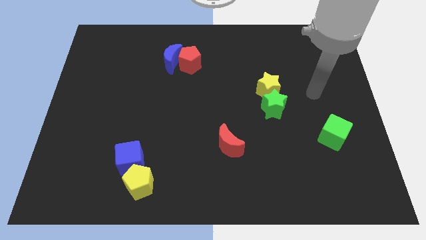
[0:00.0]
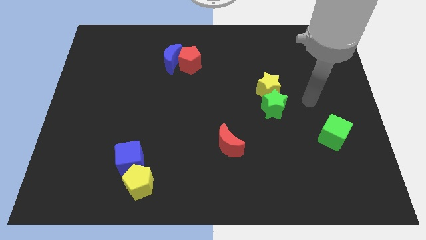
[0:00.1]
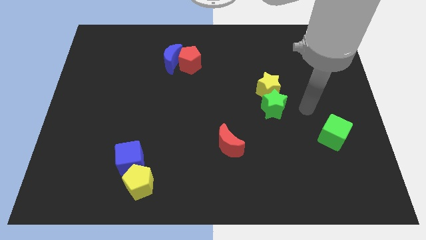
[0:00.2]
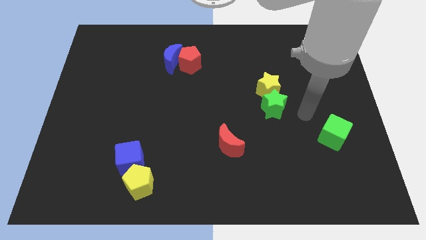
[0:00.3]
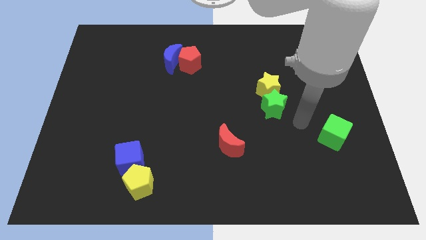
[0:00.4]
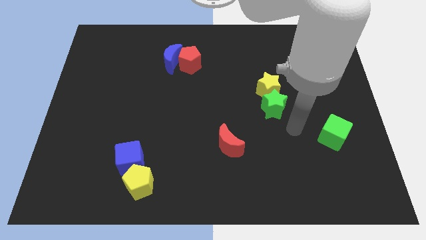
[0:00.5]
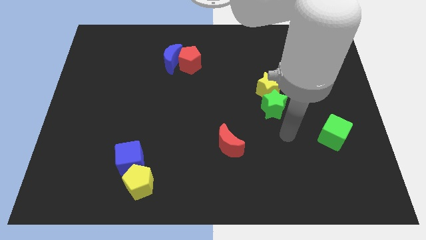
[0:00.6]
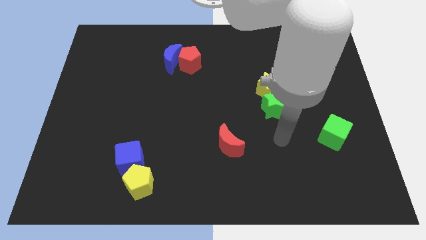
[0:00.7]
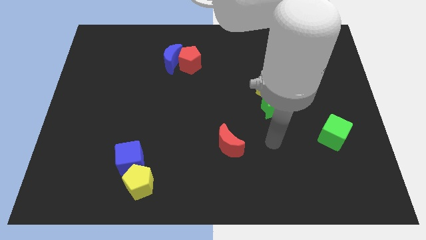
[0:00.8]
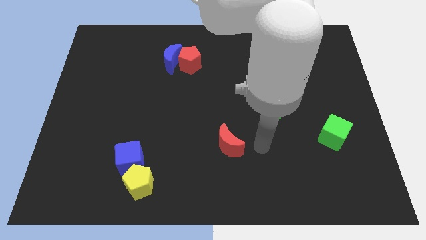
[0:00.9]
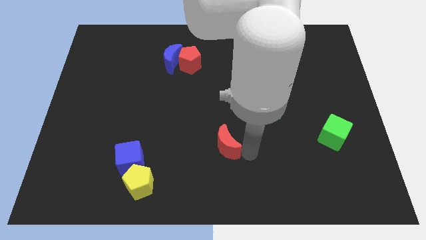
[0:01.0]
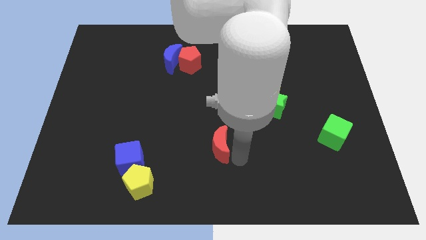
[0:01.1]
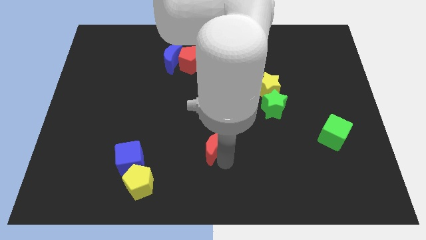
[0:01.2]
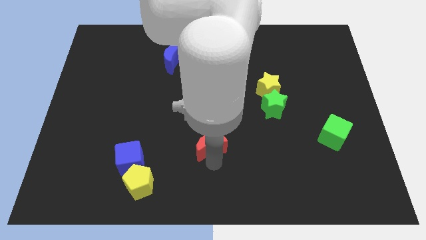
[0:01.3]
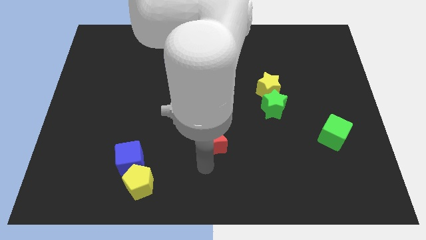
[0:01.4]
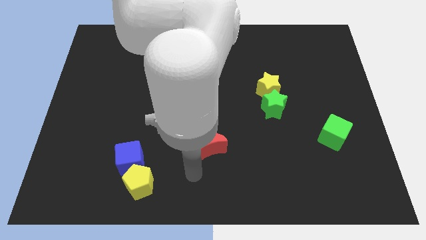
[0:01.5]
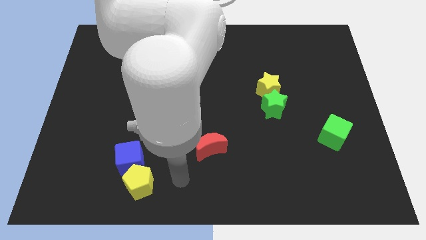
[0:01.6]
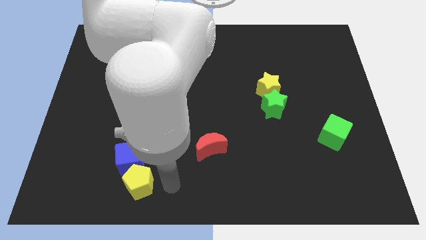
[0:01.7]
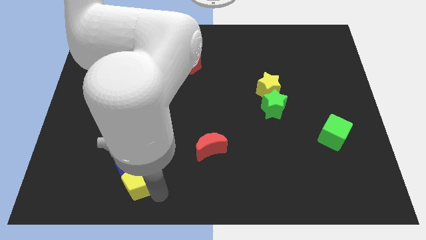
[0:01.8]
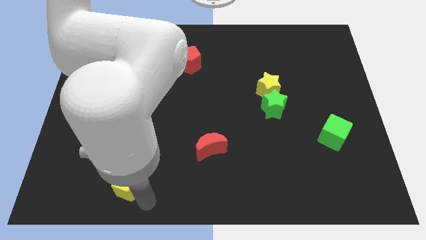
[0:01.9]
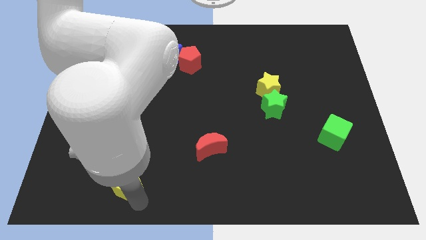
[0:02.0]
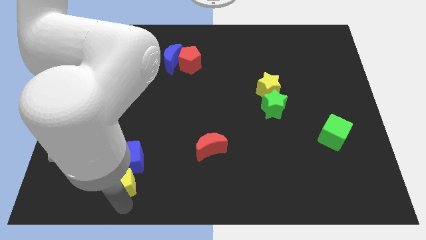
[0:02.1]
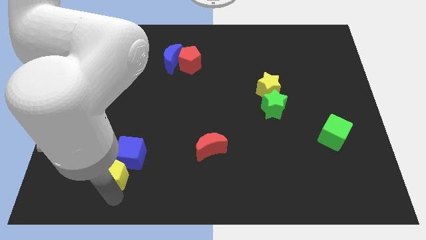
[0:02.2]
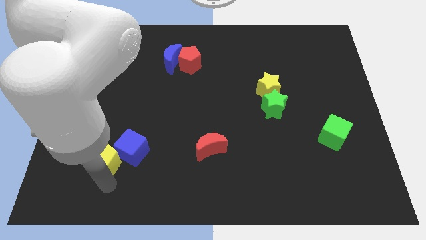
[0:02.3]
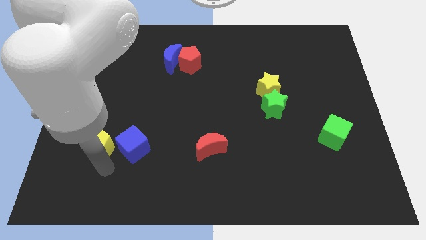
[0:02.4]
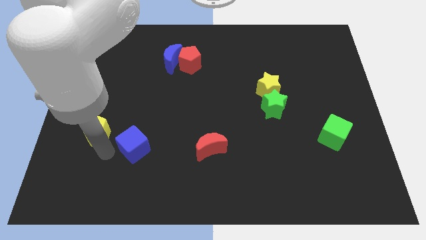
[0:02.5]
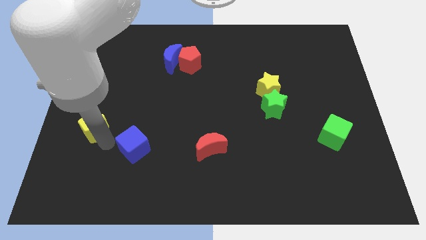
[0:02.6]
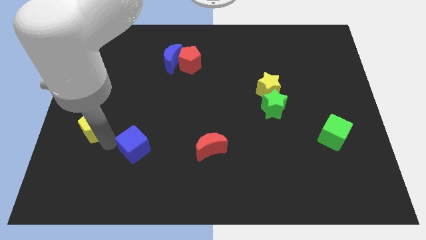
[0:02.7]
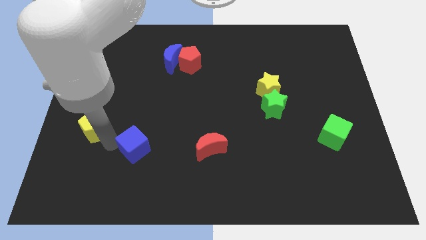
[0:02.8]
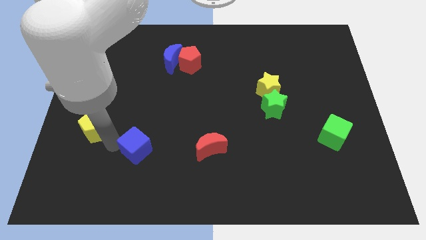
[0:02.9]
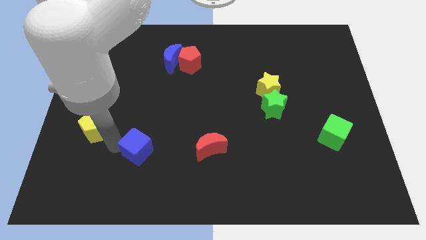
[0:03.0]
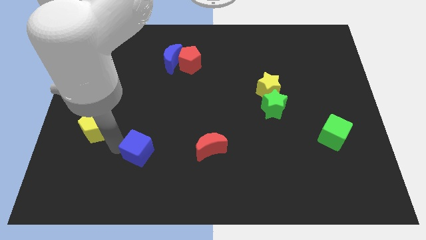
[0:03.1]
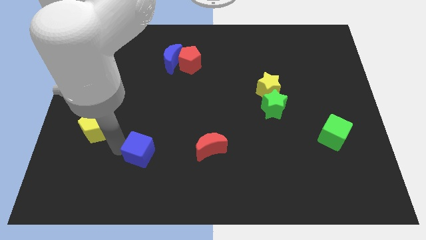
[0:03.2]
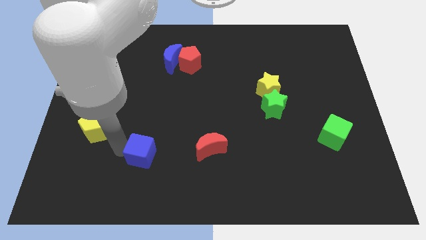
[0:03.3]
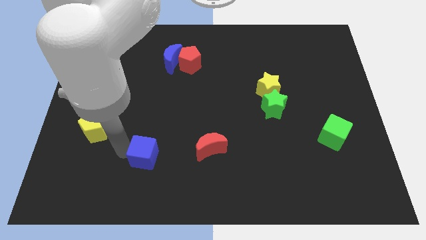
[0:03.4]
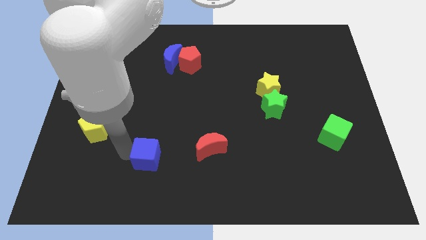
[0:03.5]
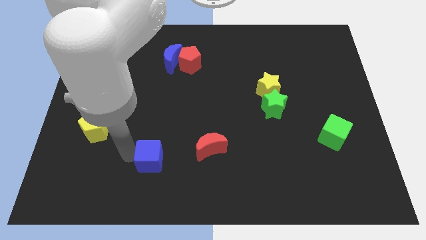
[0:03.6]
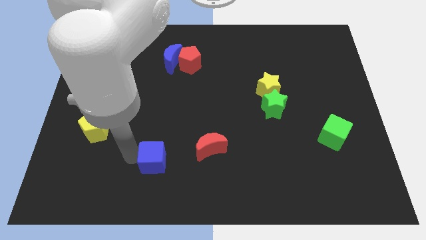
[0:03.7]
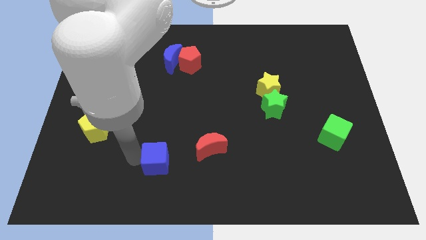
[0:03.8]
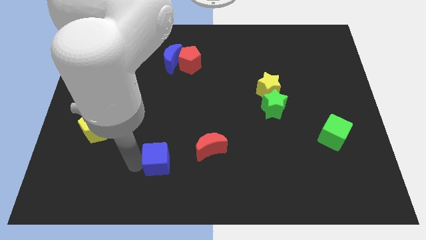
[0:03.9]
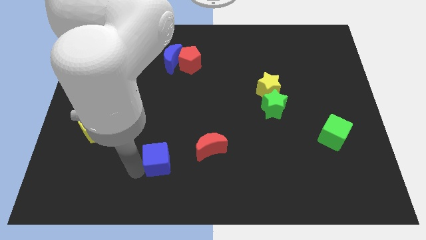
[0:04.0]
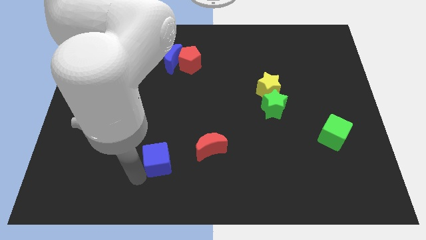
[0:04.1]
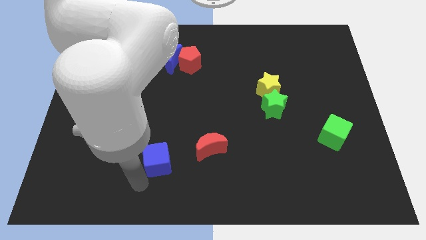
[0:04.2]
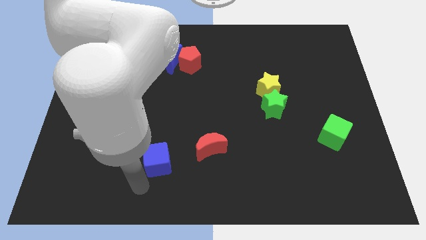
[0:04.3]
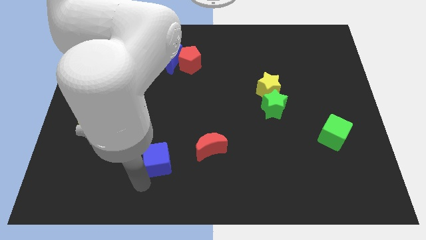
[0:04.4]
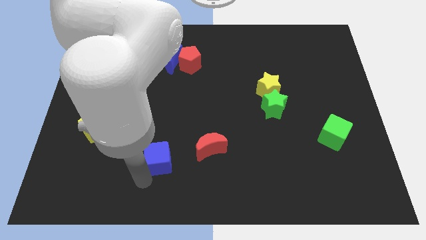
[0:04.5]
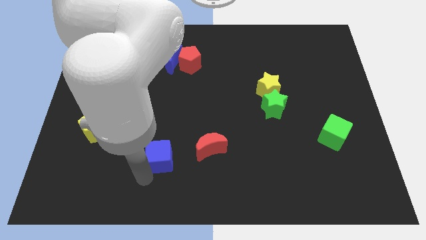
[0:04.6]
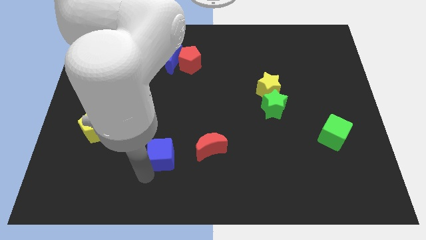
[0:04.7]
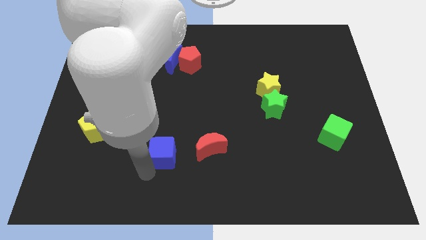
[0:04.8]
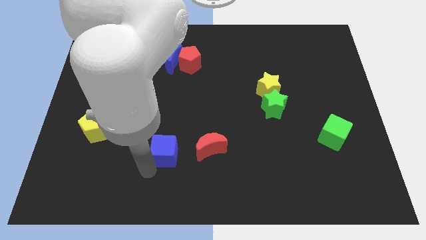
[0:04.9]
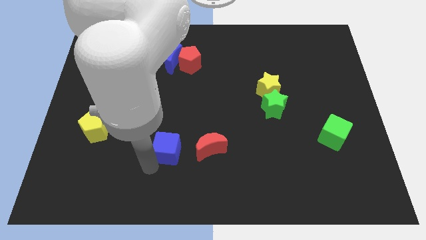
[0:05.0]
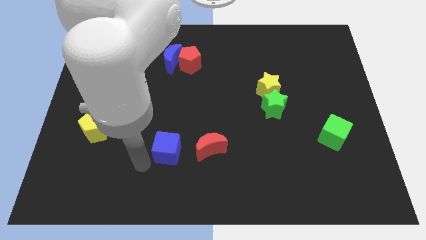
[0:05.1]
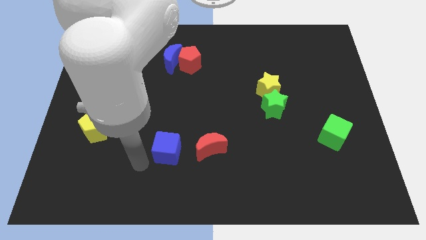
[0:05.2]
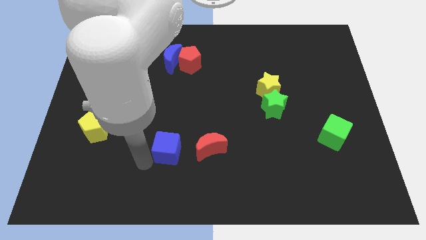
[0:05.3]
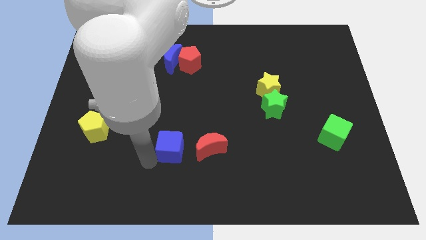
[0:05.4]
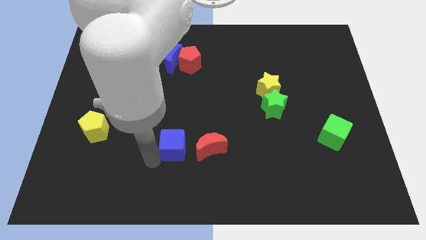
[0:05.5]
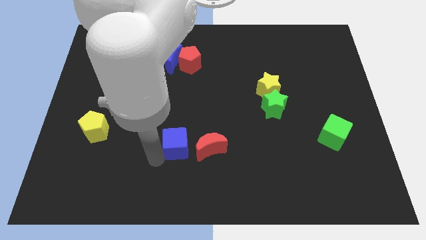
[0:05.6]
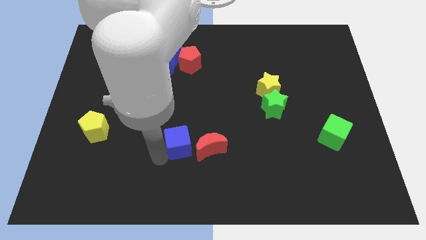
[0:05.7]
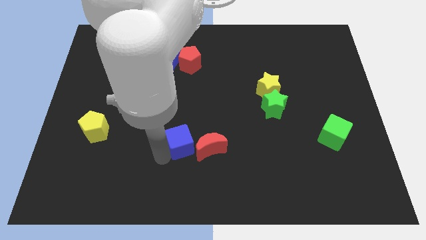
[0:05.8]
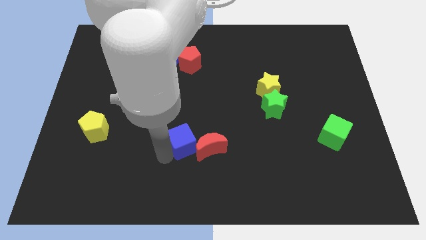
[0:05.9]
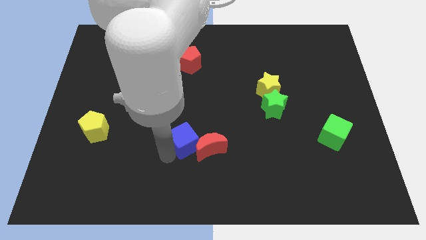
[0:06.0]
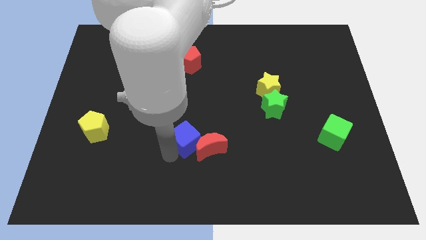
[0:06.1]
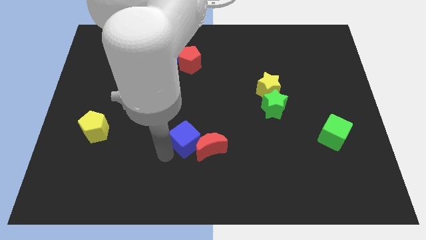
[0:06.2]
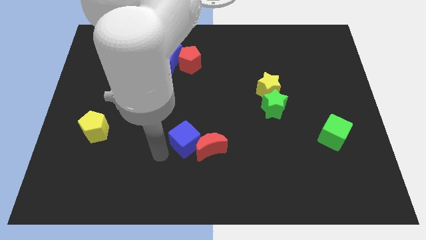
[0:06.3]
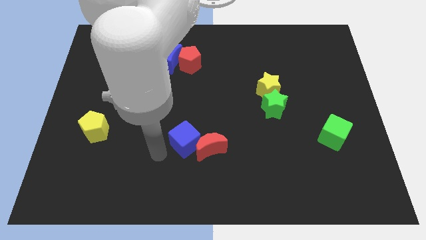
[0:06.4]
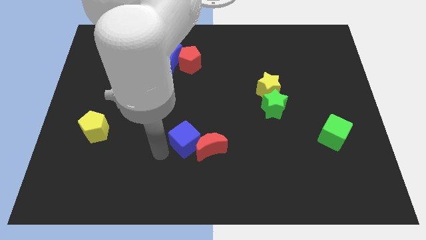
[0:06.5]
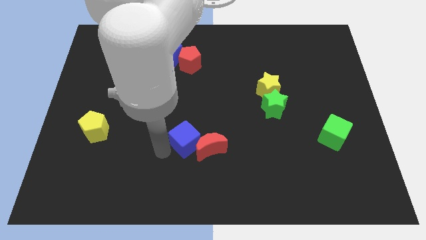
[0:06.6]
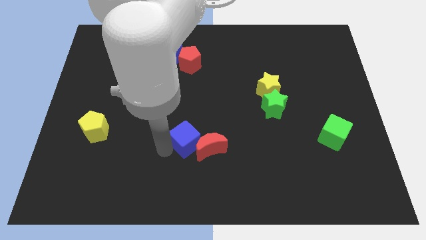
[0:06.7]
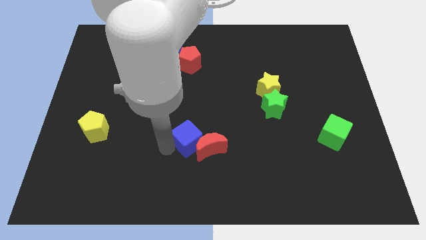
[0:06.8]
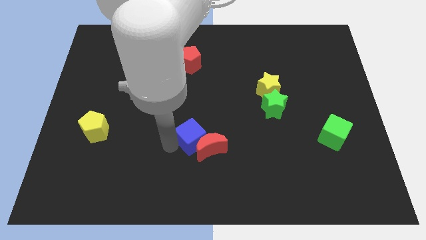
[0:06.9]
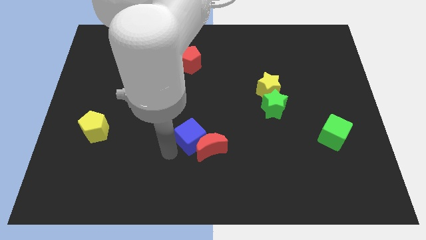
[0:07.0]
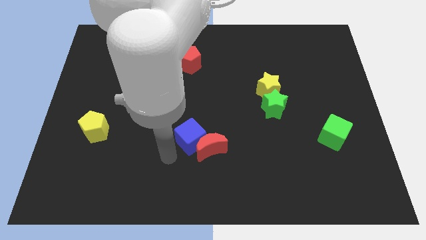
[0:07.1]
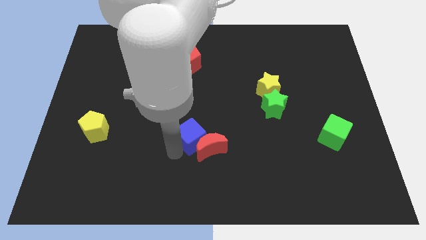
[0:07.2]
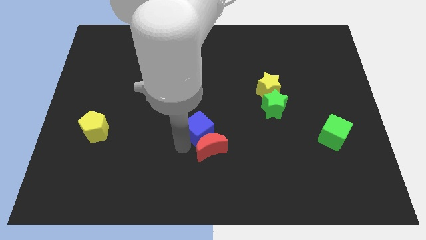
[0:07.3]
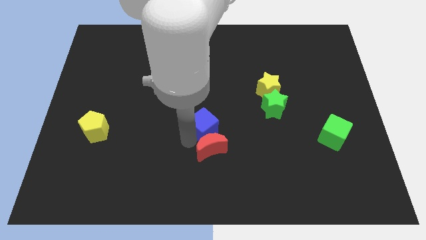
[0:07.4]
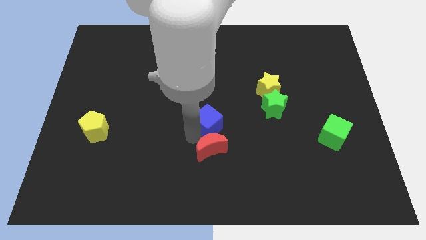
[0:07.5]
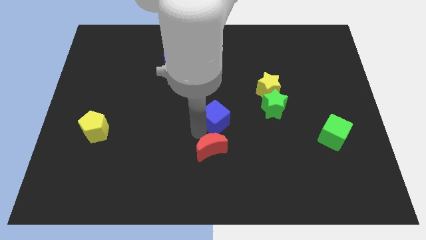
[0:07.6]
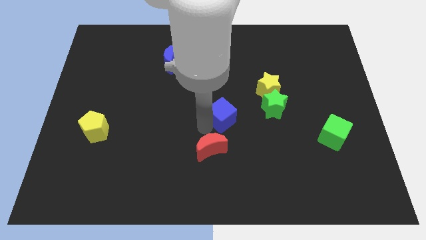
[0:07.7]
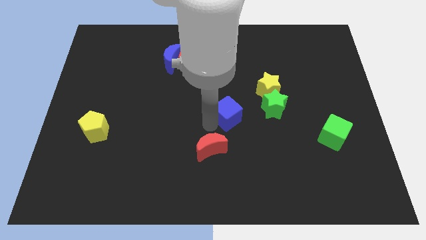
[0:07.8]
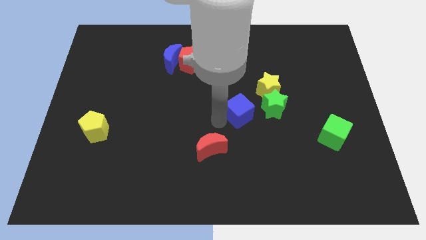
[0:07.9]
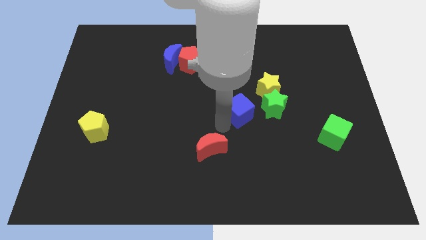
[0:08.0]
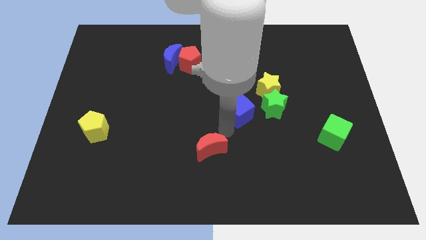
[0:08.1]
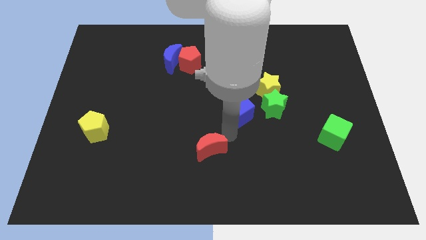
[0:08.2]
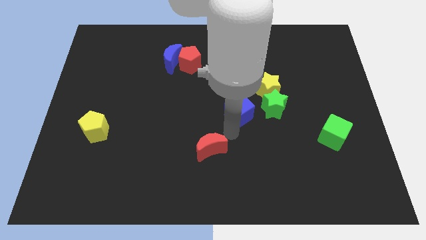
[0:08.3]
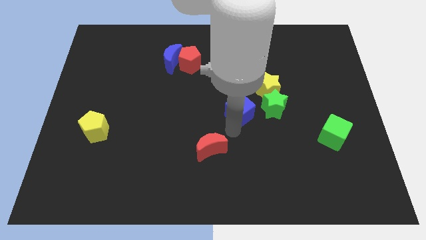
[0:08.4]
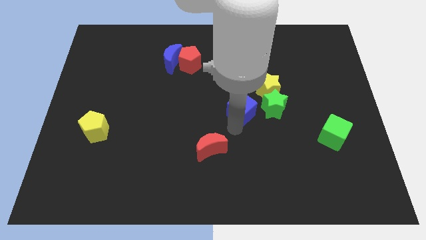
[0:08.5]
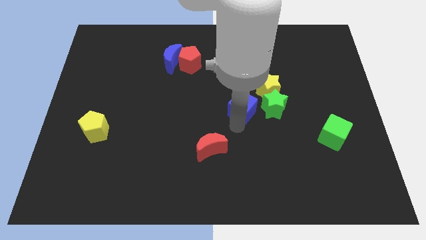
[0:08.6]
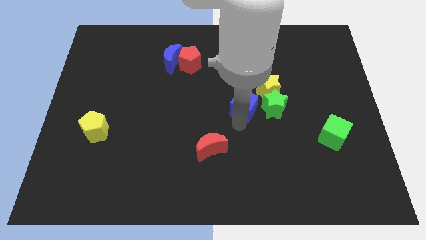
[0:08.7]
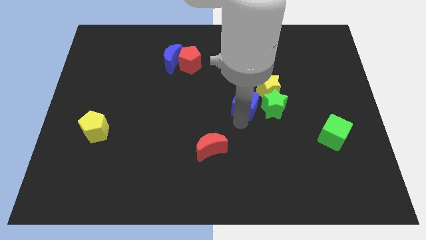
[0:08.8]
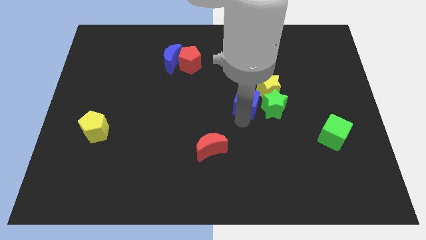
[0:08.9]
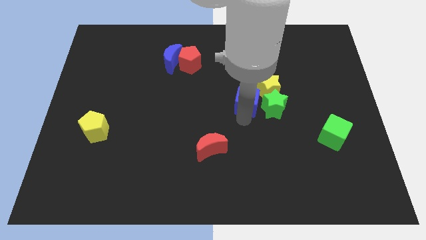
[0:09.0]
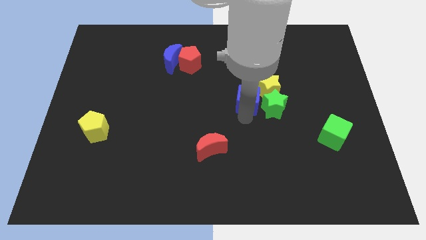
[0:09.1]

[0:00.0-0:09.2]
put the blue cube to the yellow star
